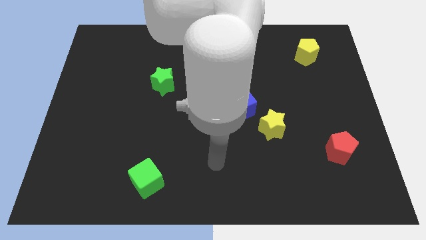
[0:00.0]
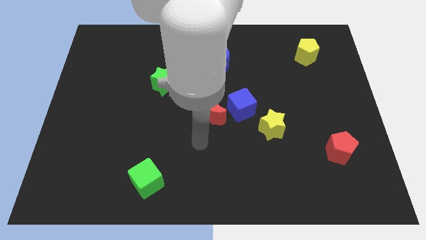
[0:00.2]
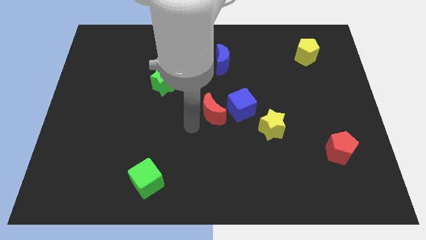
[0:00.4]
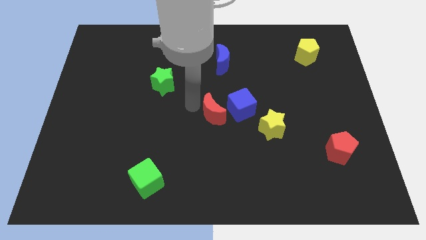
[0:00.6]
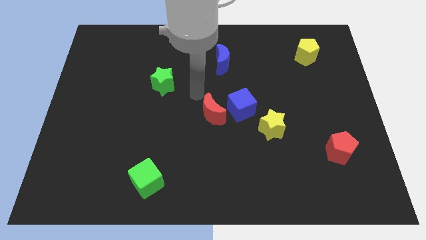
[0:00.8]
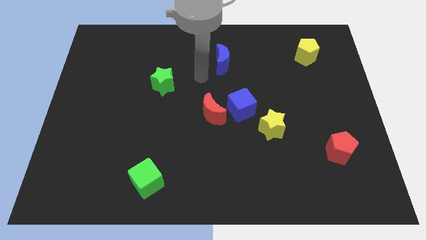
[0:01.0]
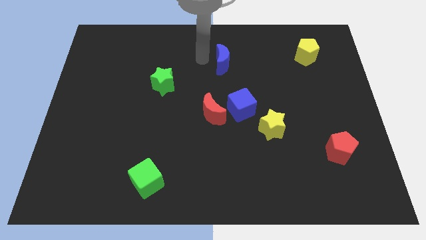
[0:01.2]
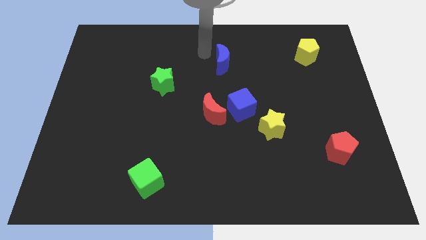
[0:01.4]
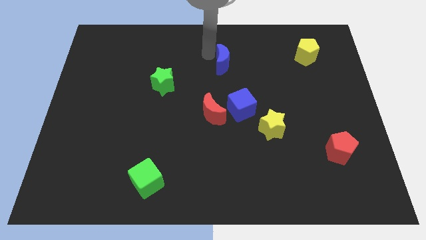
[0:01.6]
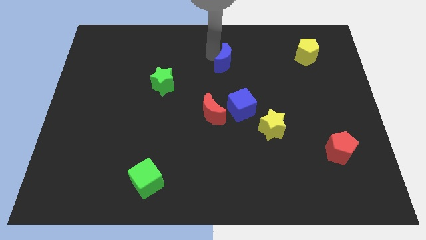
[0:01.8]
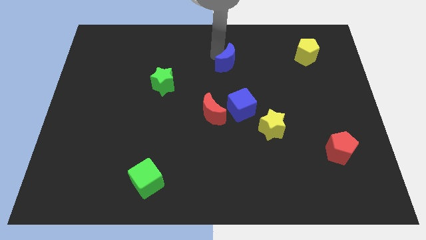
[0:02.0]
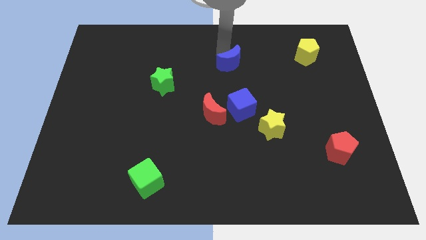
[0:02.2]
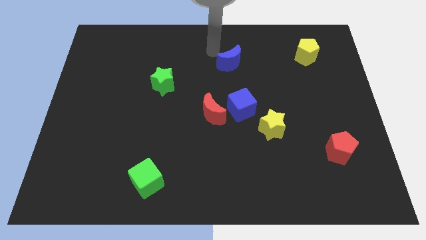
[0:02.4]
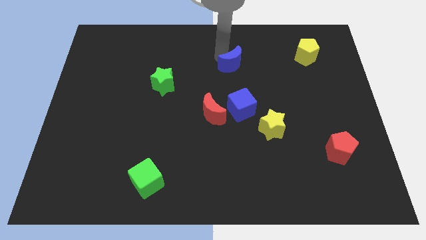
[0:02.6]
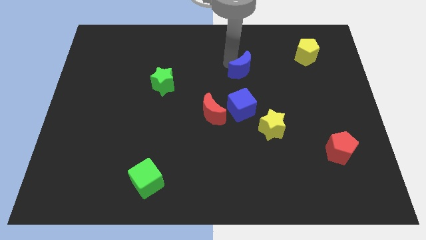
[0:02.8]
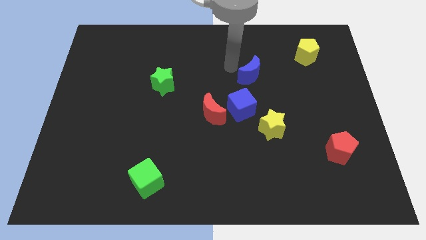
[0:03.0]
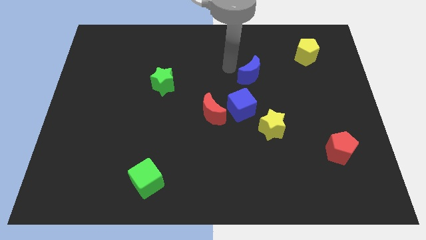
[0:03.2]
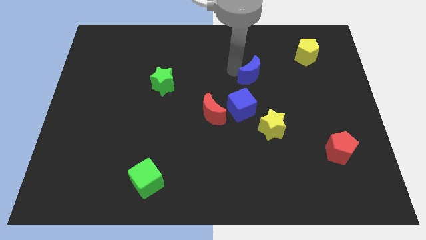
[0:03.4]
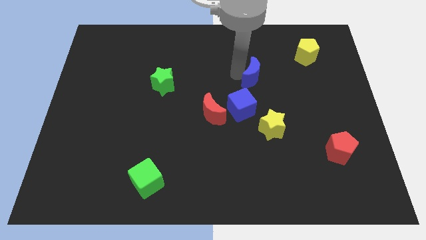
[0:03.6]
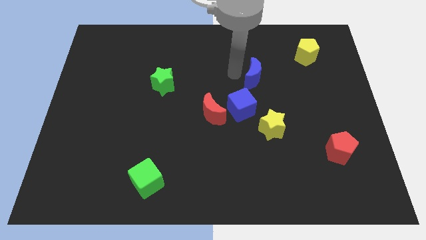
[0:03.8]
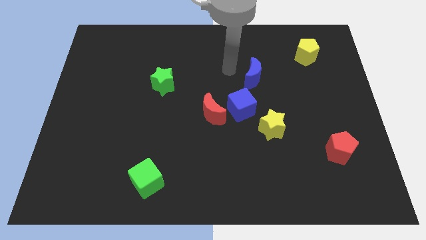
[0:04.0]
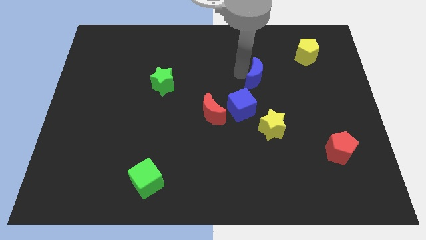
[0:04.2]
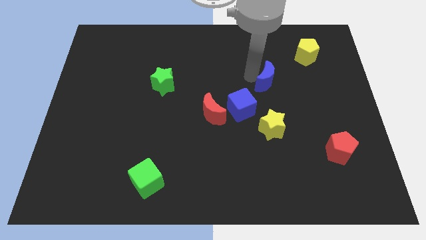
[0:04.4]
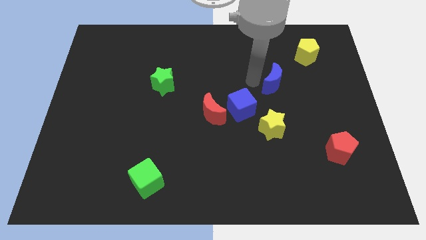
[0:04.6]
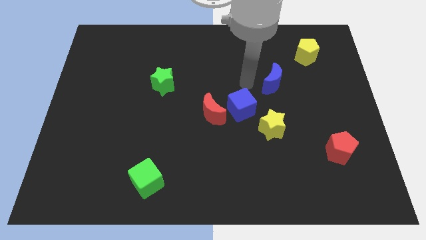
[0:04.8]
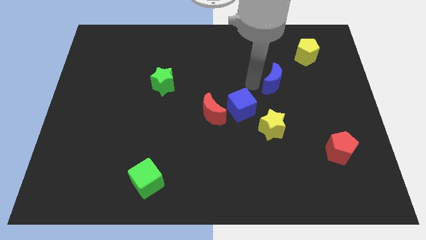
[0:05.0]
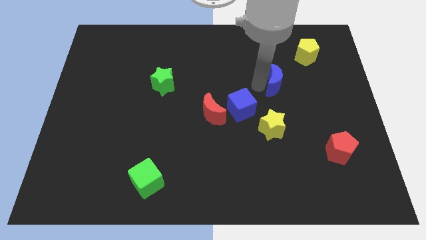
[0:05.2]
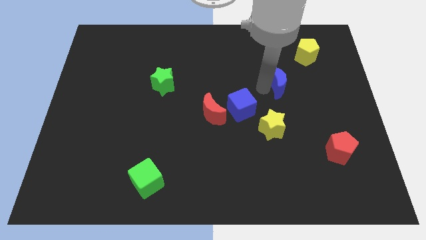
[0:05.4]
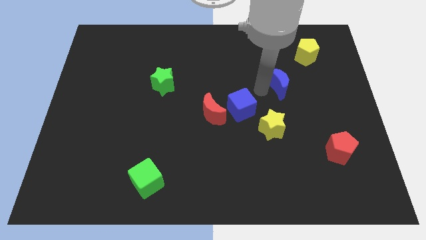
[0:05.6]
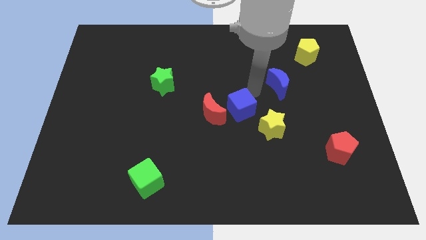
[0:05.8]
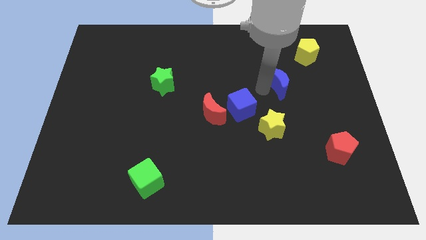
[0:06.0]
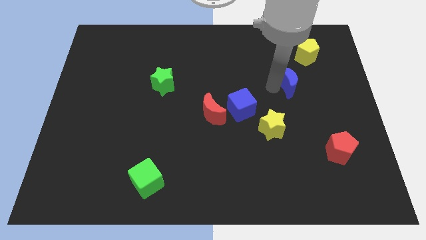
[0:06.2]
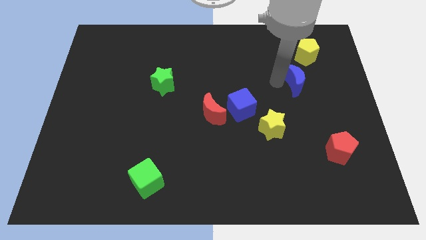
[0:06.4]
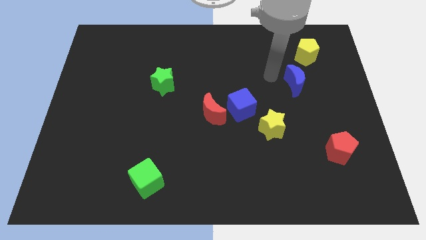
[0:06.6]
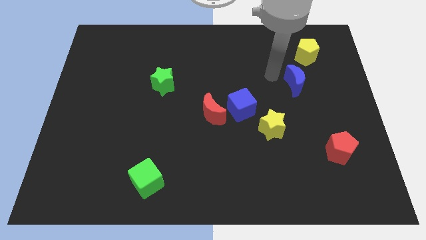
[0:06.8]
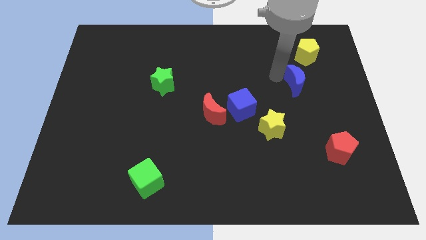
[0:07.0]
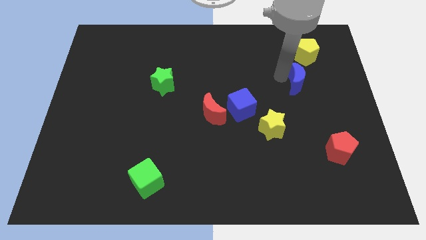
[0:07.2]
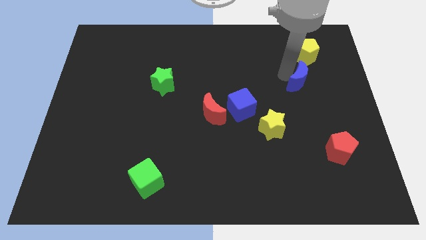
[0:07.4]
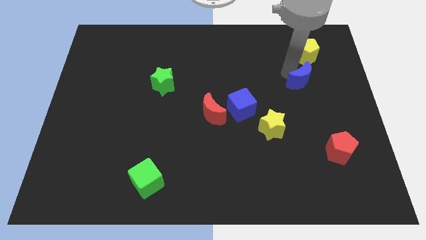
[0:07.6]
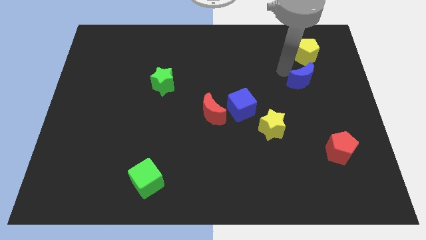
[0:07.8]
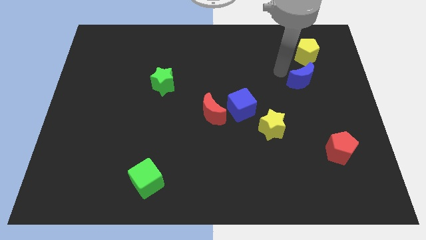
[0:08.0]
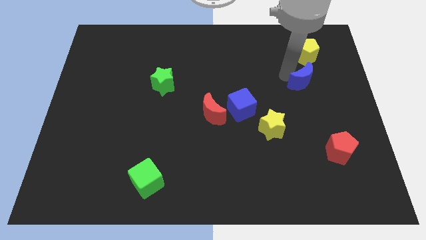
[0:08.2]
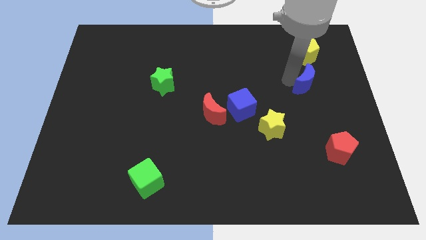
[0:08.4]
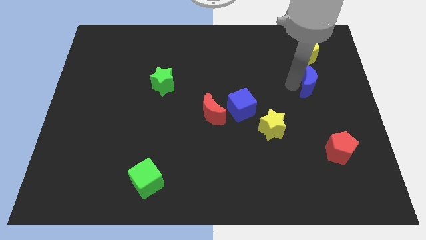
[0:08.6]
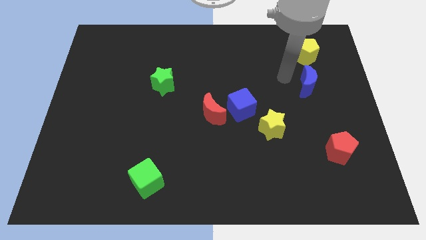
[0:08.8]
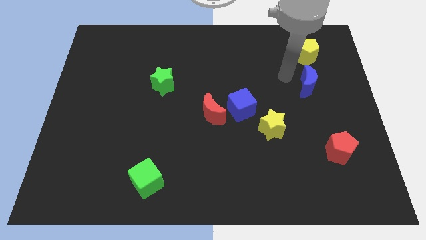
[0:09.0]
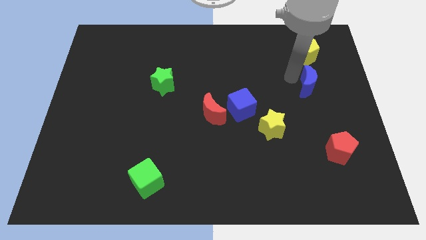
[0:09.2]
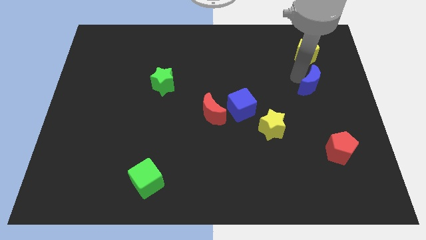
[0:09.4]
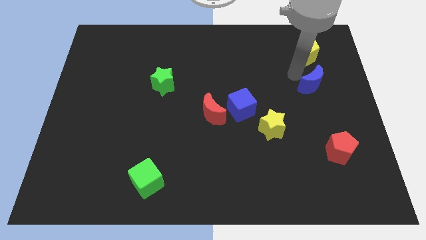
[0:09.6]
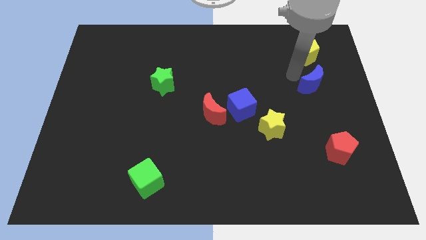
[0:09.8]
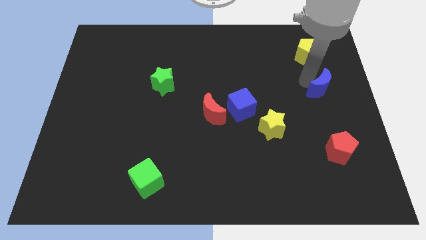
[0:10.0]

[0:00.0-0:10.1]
put the blue moon to the right side

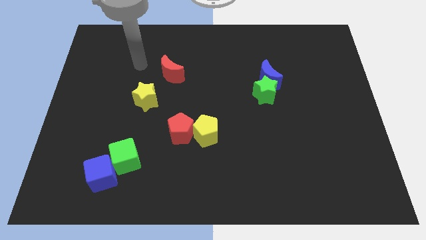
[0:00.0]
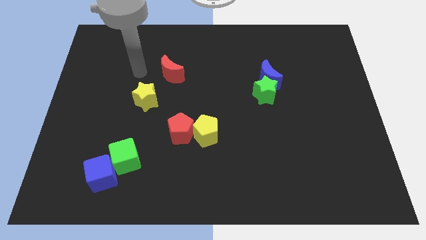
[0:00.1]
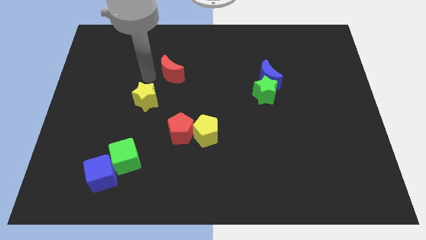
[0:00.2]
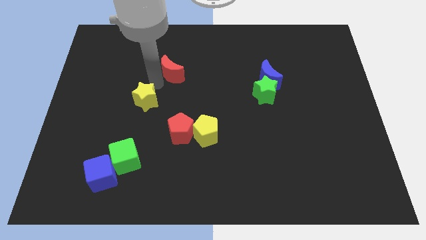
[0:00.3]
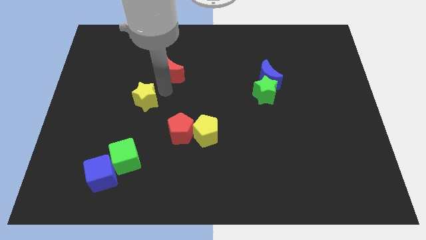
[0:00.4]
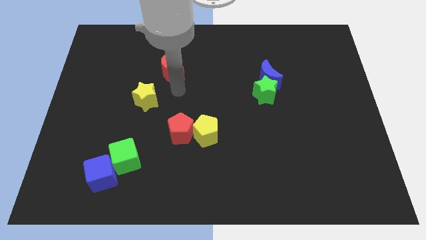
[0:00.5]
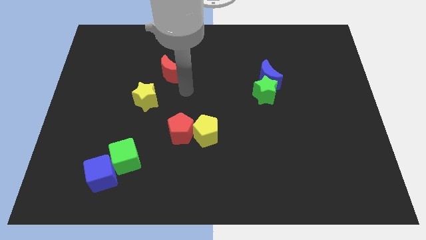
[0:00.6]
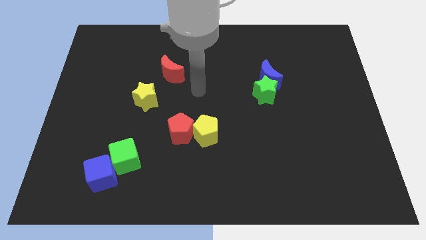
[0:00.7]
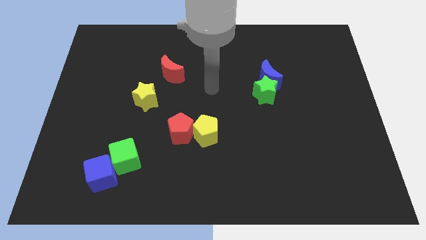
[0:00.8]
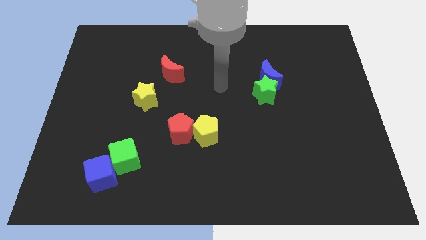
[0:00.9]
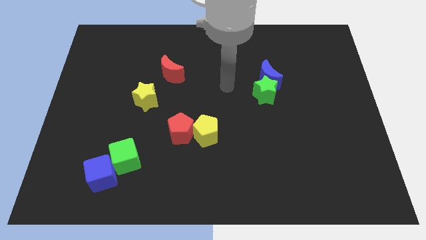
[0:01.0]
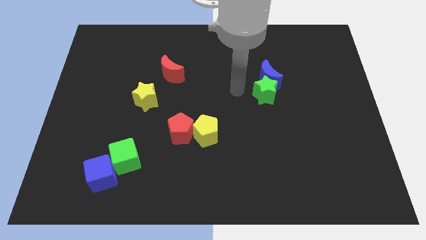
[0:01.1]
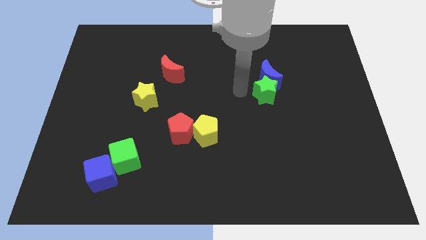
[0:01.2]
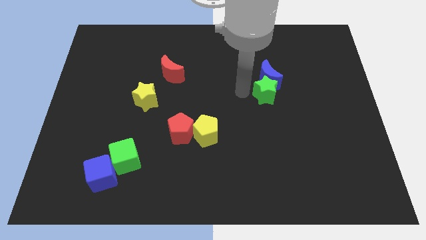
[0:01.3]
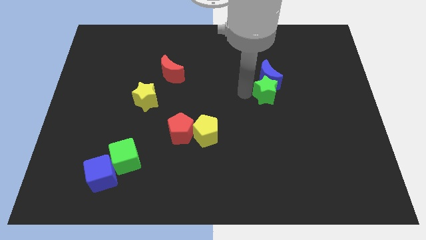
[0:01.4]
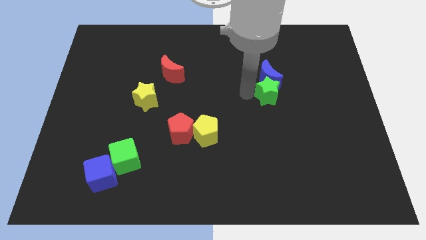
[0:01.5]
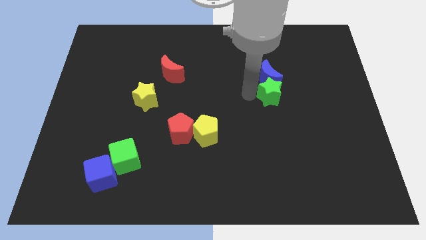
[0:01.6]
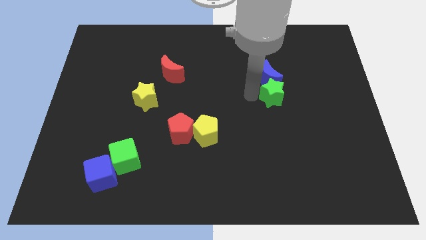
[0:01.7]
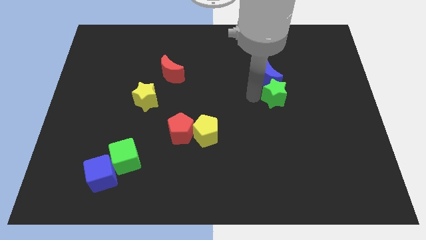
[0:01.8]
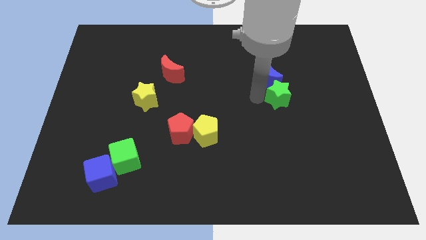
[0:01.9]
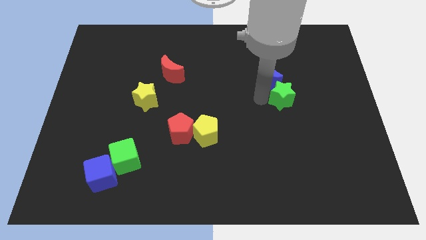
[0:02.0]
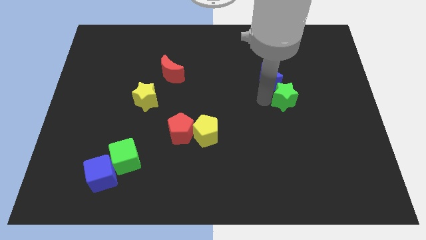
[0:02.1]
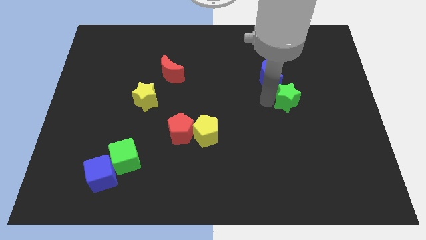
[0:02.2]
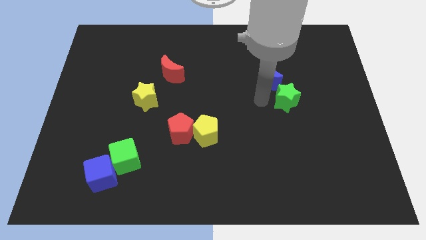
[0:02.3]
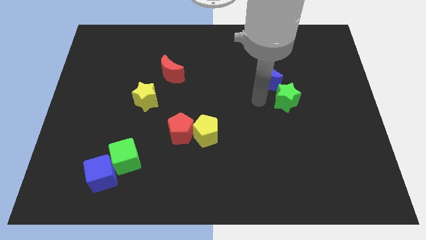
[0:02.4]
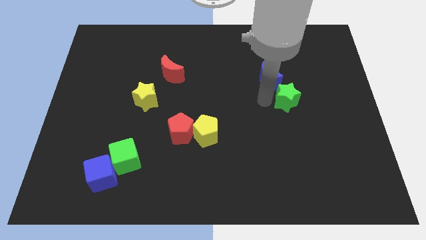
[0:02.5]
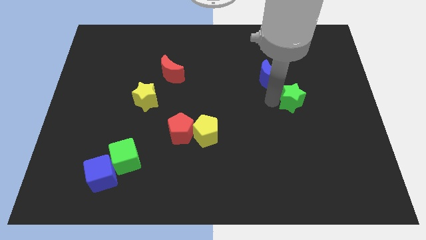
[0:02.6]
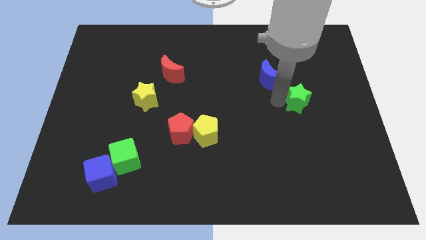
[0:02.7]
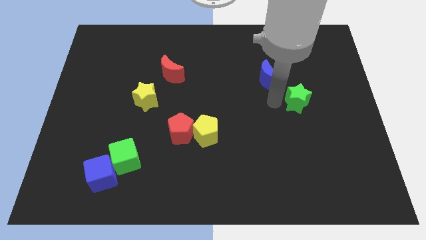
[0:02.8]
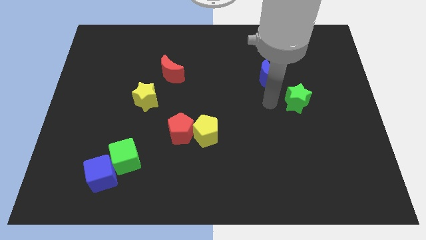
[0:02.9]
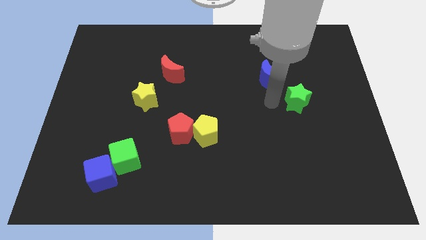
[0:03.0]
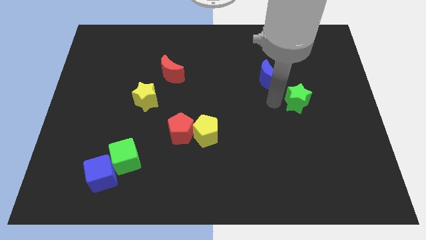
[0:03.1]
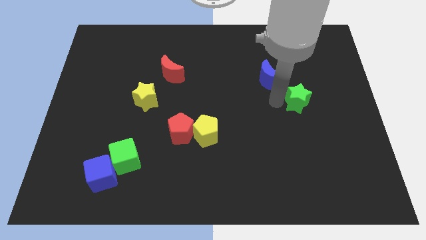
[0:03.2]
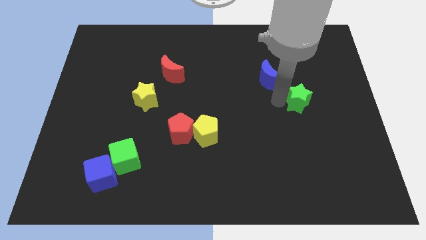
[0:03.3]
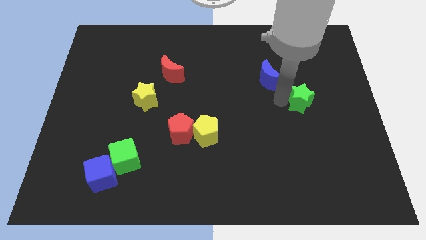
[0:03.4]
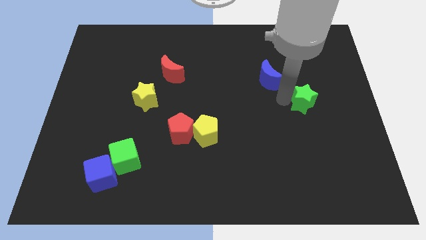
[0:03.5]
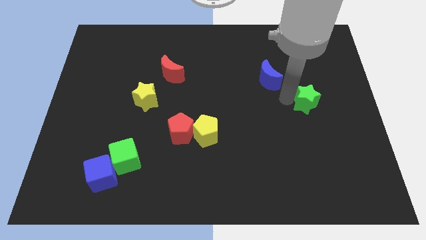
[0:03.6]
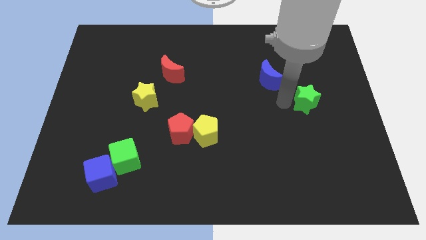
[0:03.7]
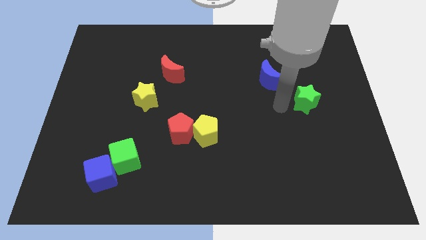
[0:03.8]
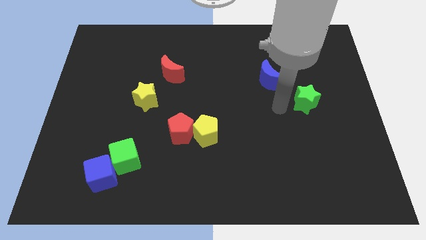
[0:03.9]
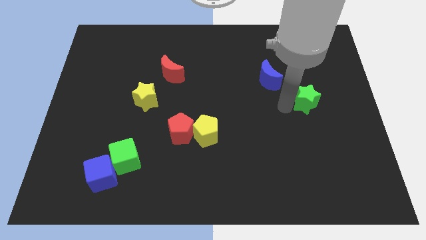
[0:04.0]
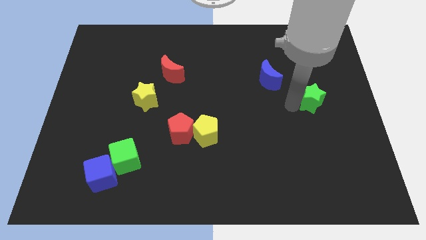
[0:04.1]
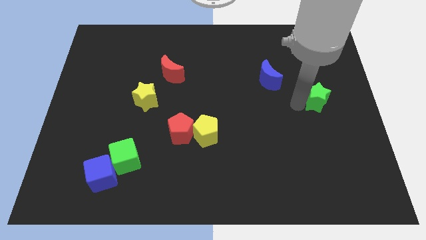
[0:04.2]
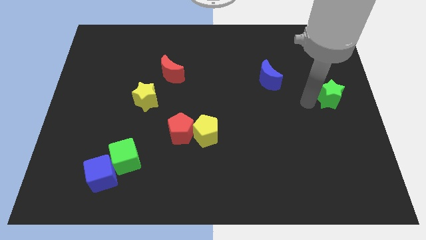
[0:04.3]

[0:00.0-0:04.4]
push the green star to the center right
